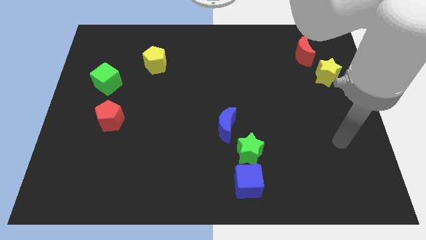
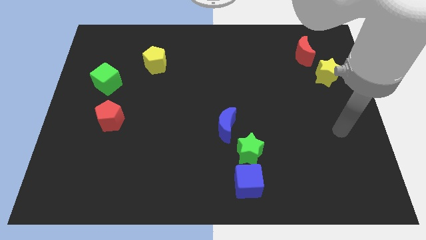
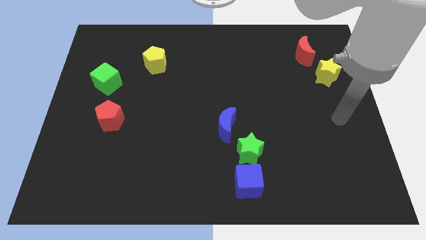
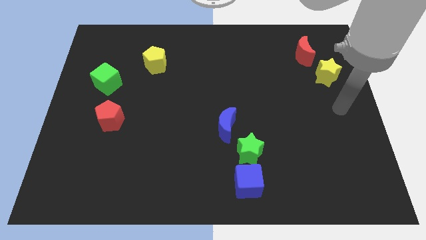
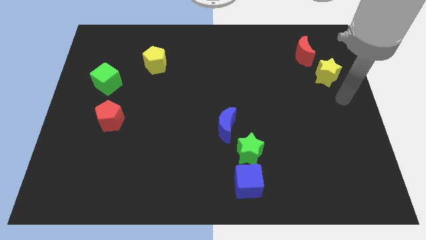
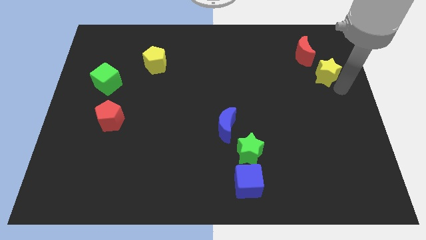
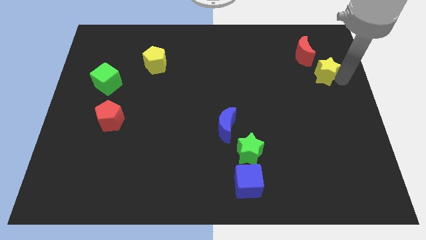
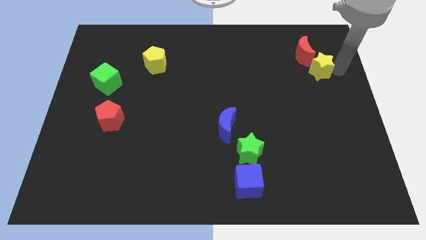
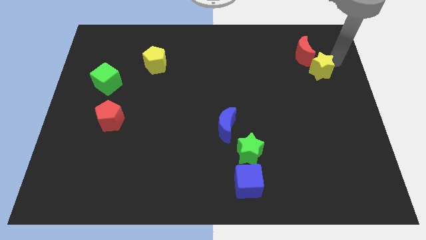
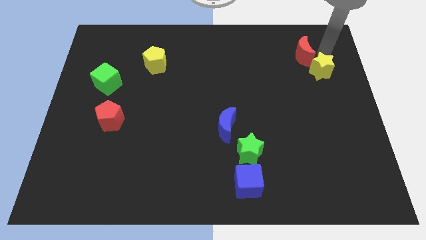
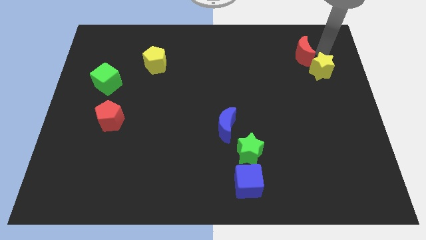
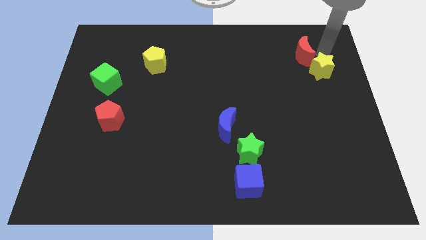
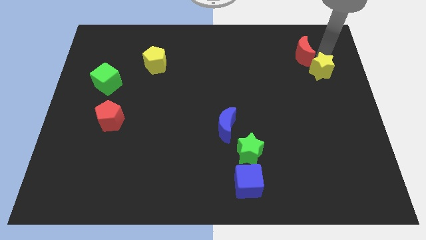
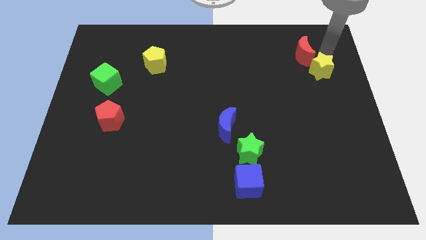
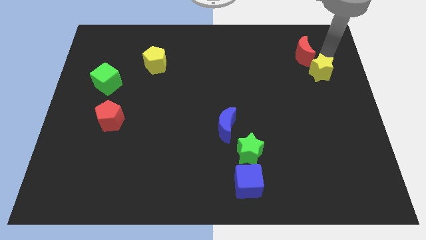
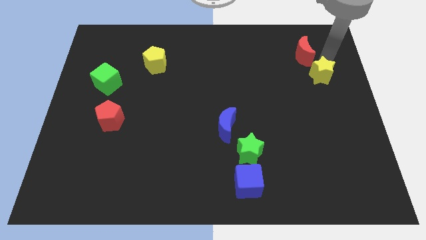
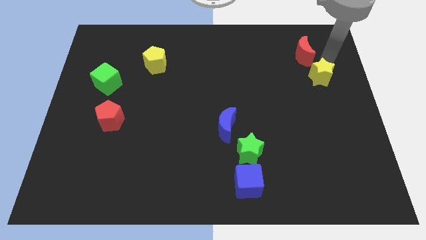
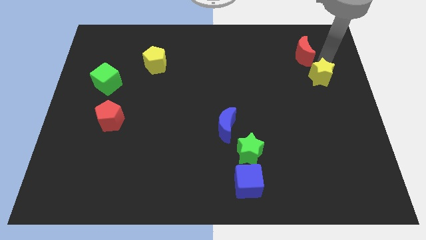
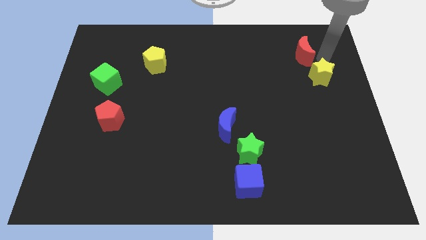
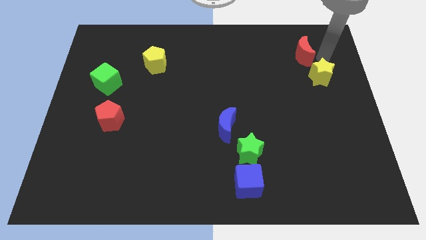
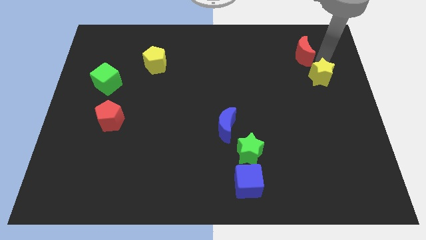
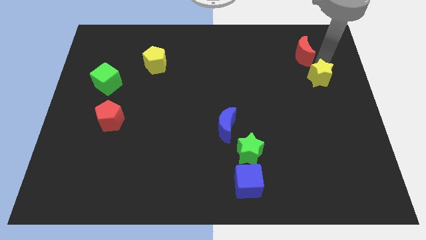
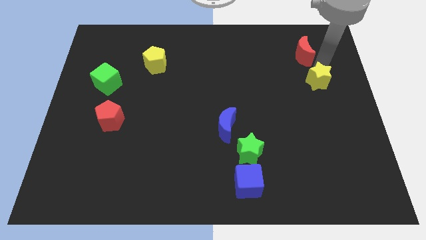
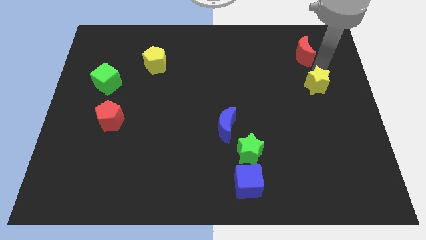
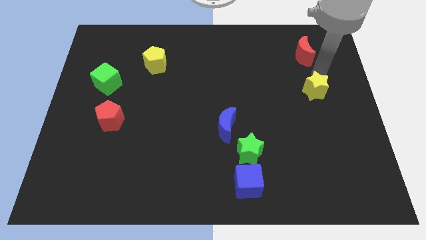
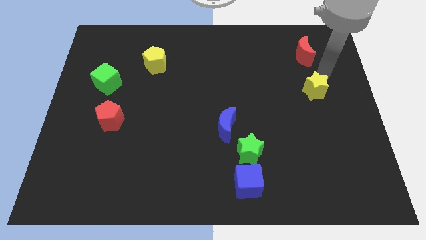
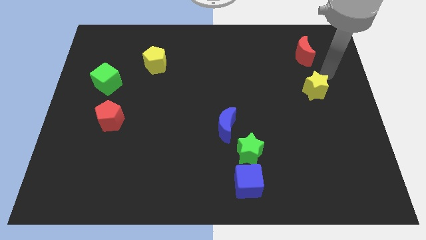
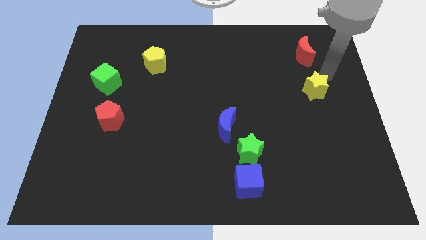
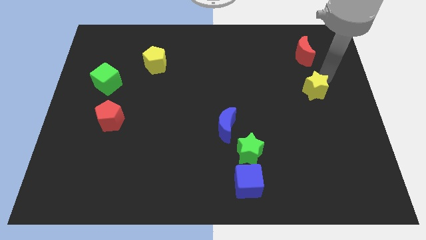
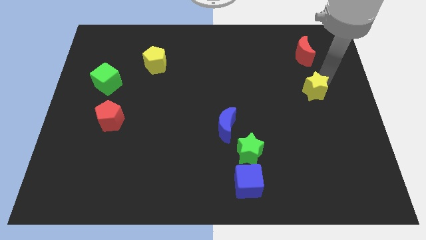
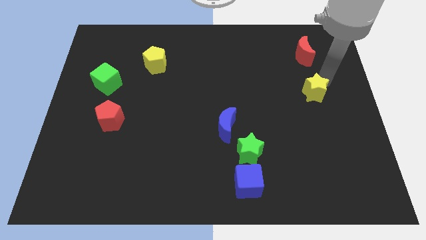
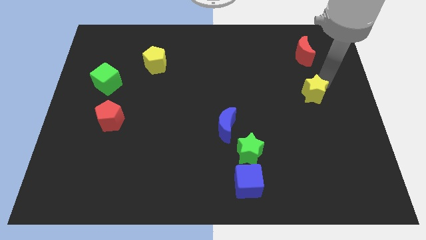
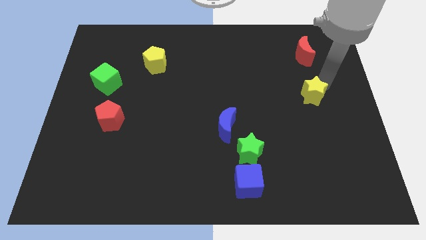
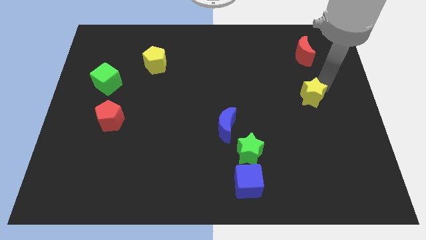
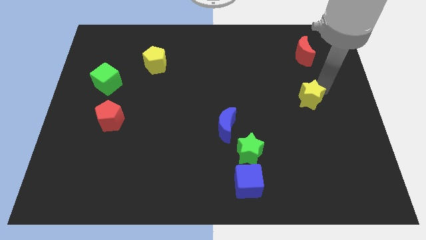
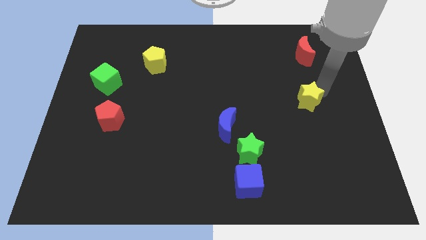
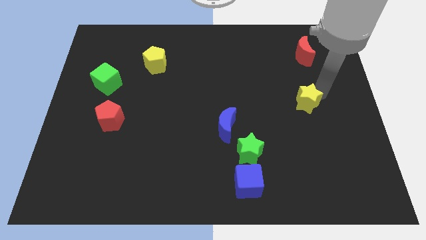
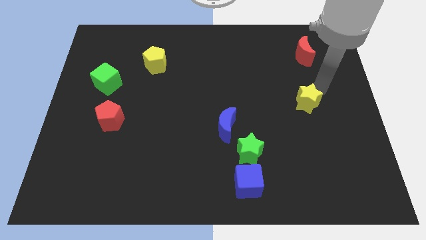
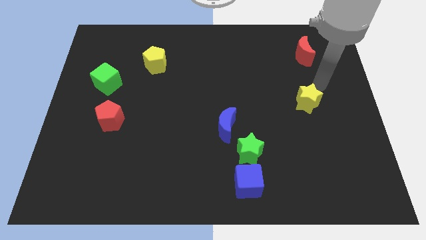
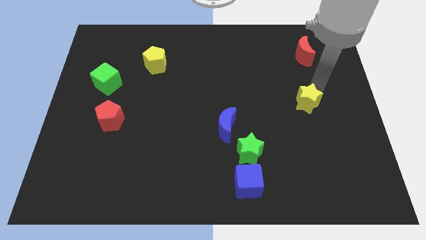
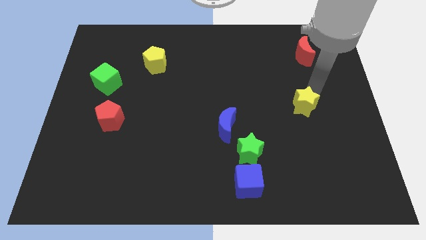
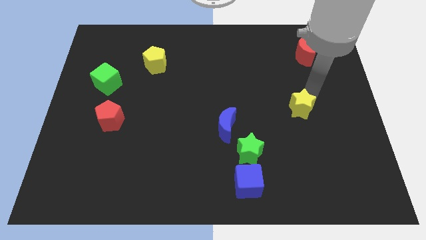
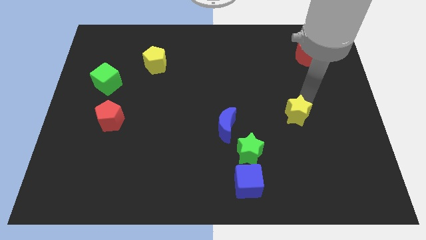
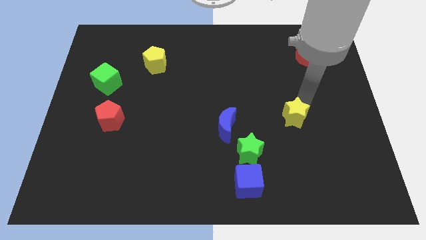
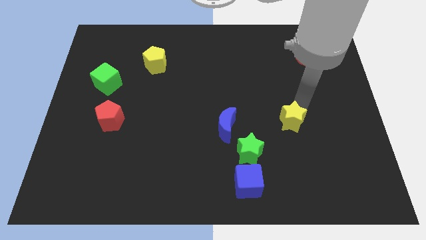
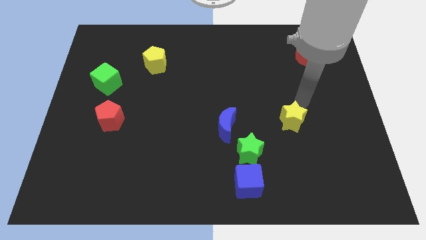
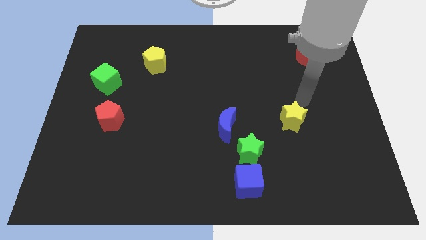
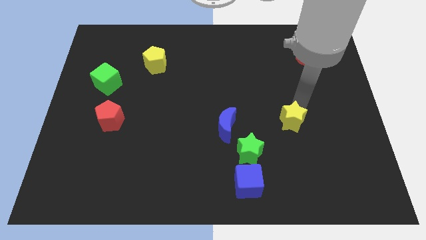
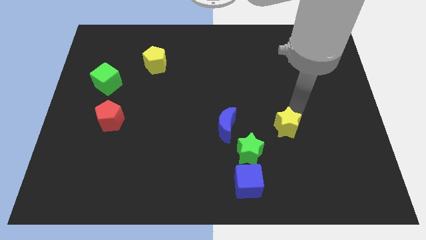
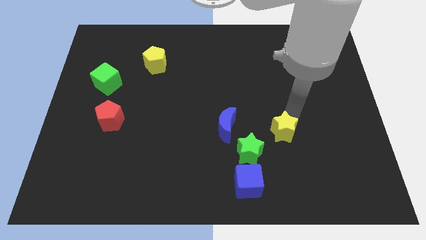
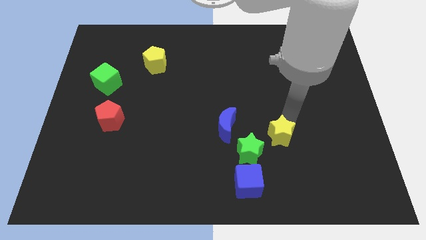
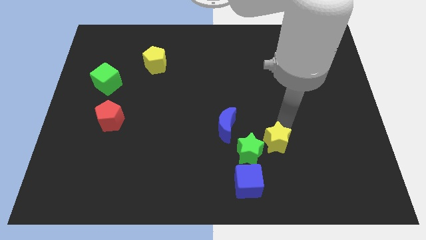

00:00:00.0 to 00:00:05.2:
put the yellow star diagonally up and to the right of the blue cube

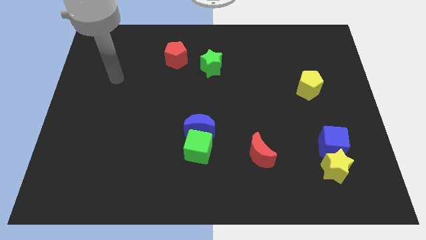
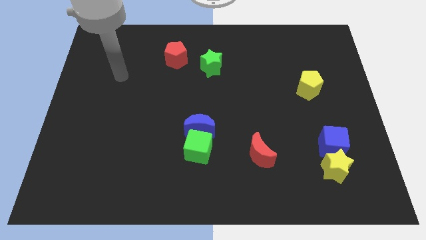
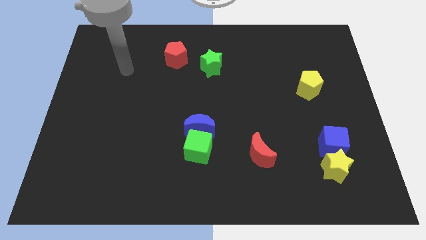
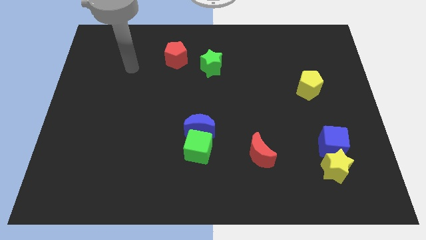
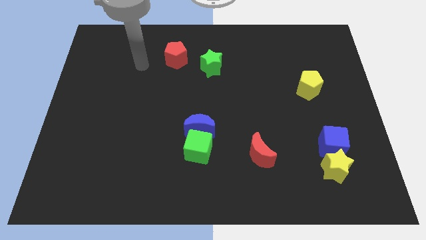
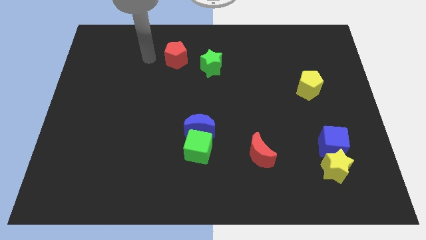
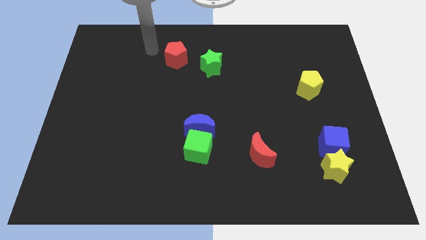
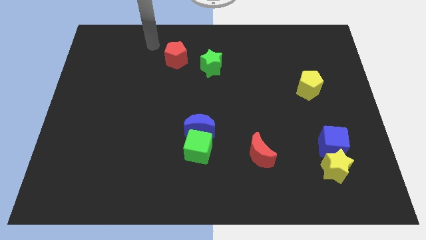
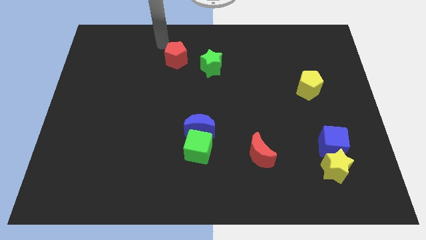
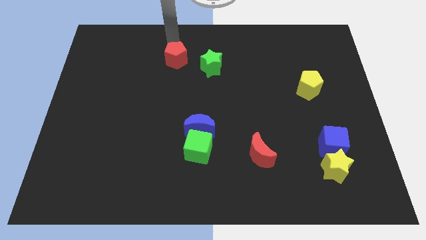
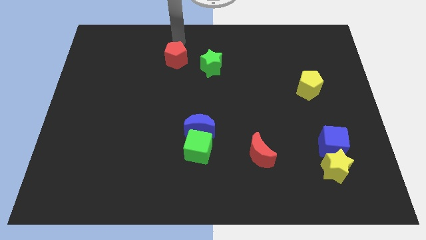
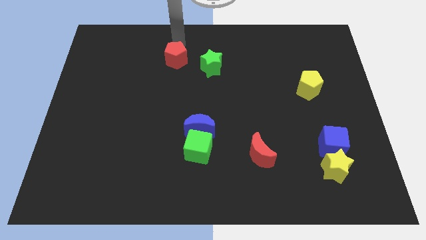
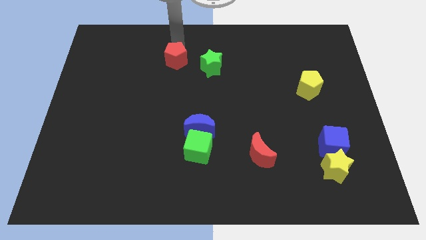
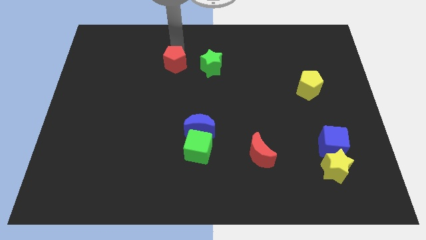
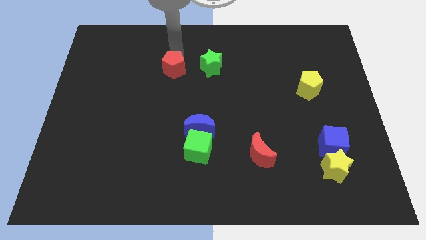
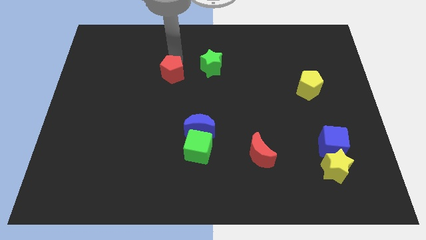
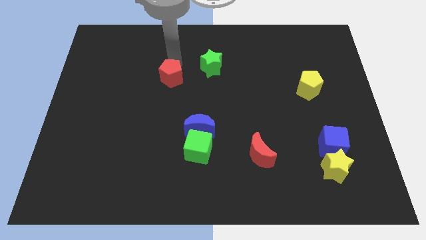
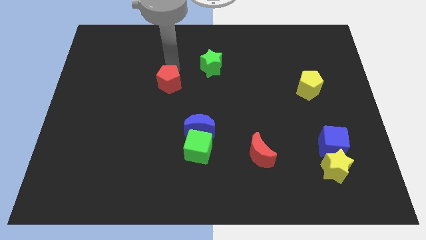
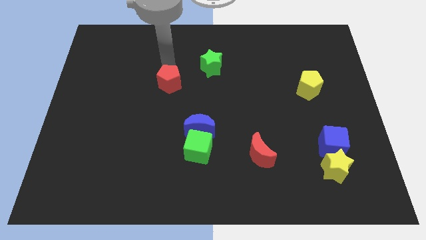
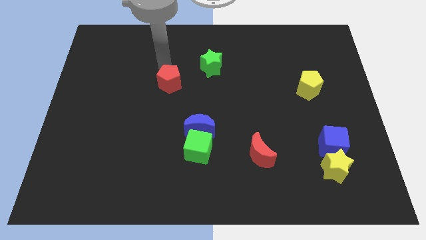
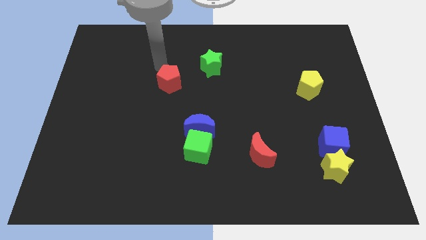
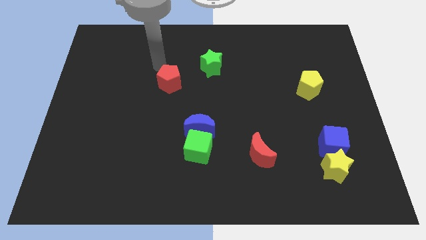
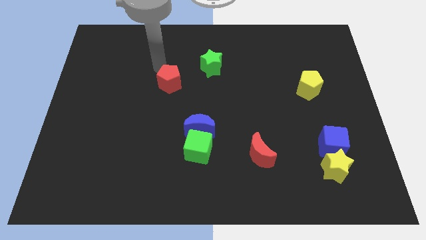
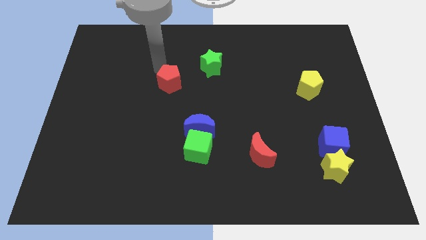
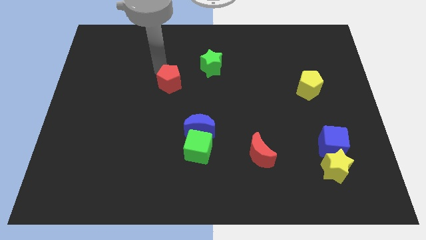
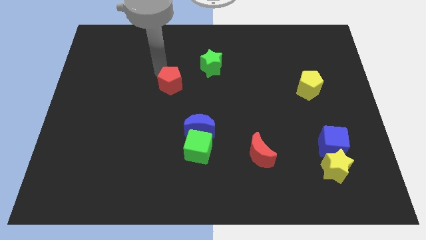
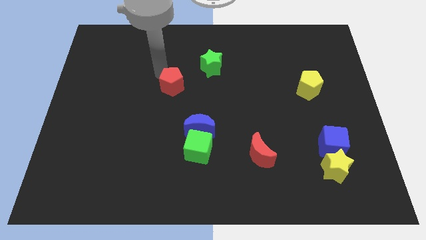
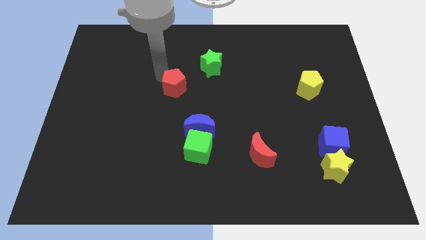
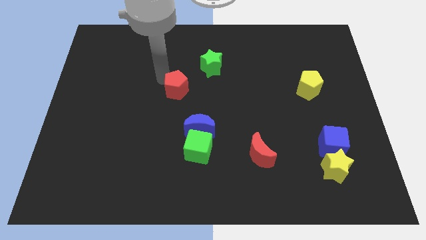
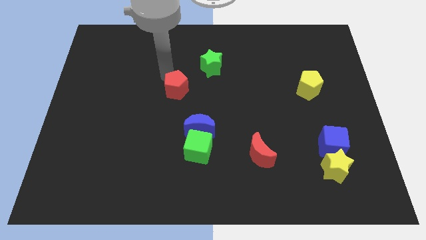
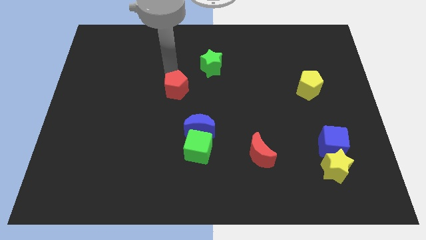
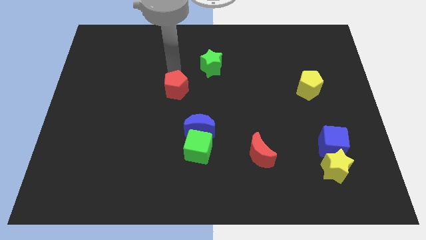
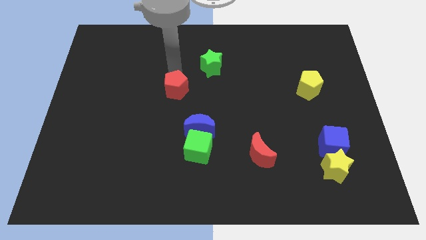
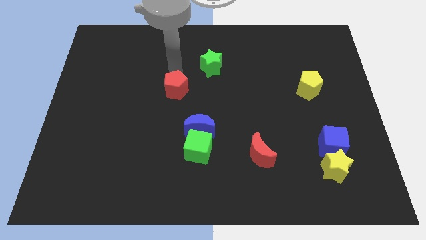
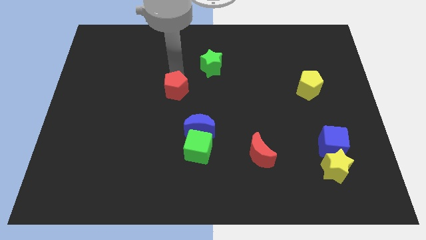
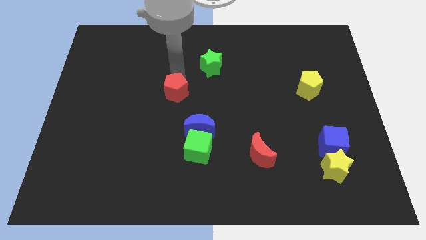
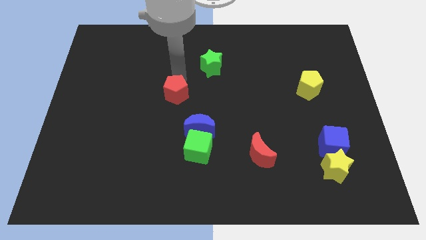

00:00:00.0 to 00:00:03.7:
push the red pentagon to the top left side of the blue moon
